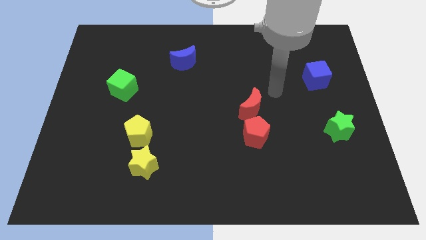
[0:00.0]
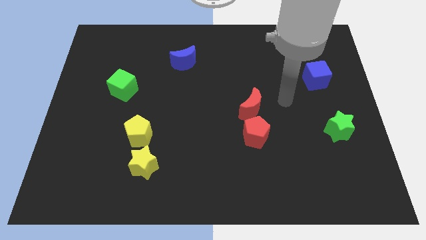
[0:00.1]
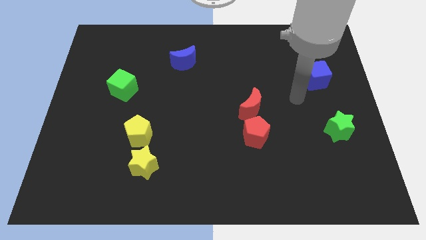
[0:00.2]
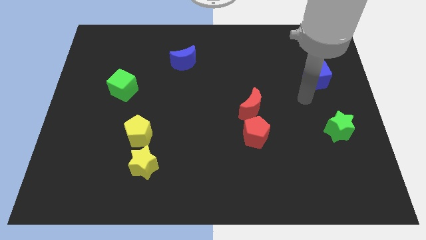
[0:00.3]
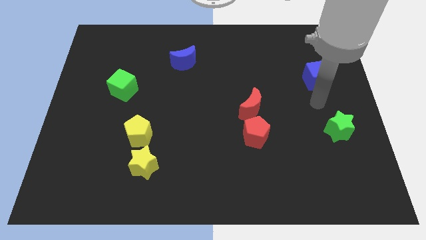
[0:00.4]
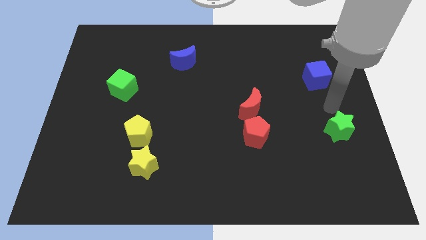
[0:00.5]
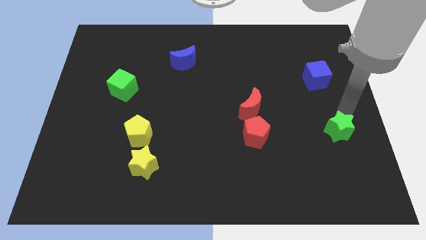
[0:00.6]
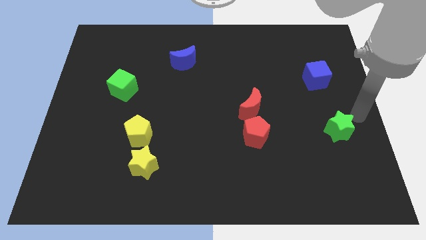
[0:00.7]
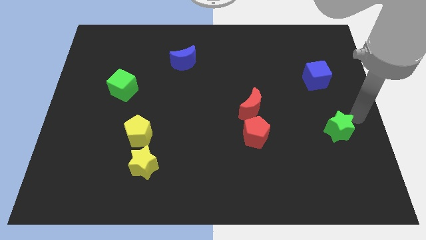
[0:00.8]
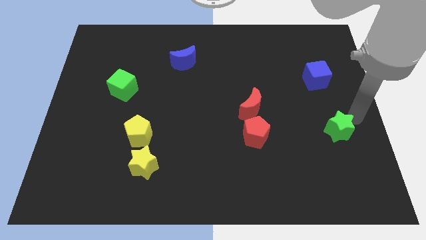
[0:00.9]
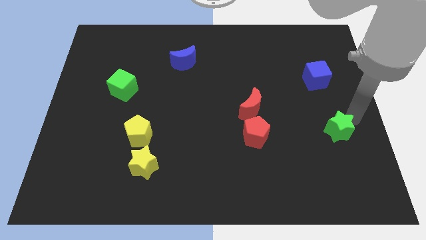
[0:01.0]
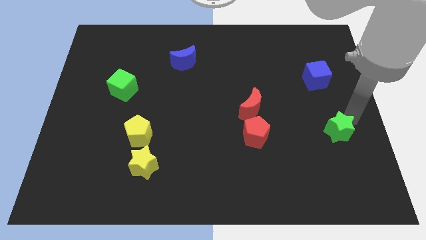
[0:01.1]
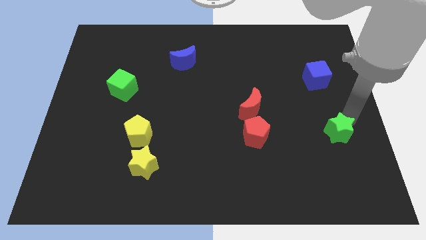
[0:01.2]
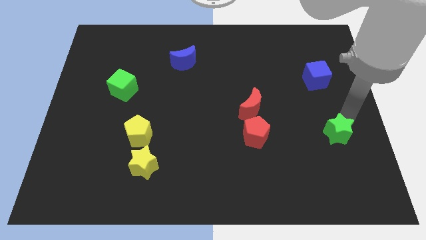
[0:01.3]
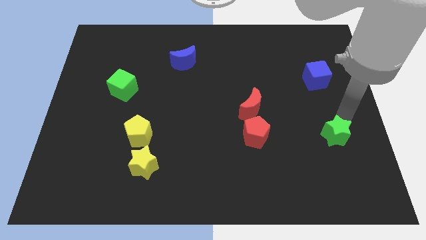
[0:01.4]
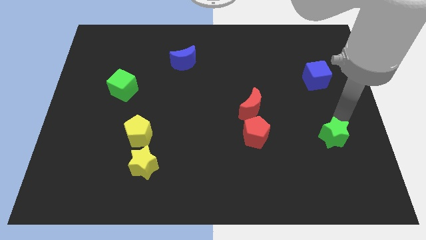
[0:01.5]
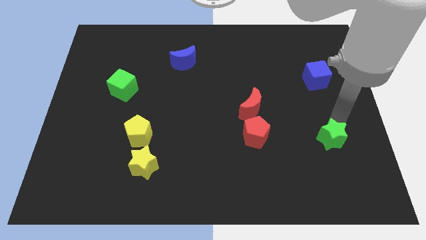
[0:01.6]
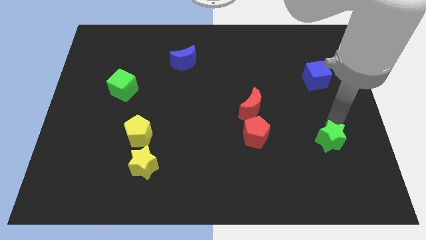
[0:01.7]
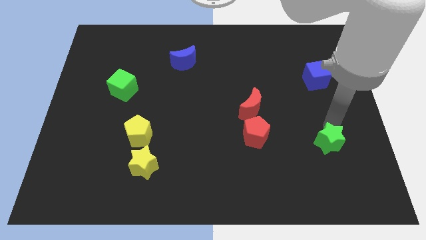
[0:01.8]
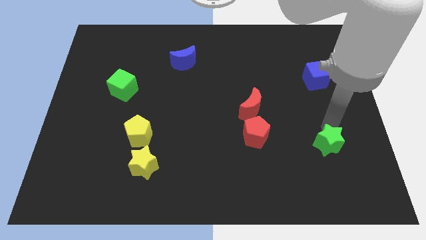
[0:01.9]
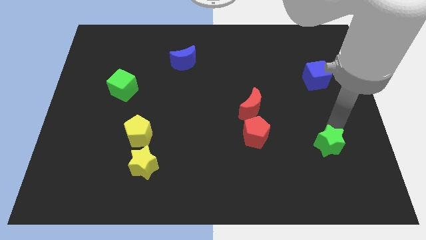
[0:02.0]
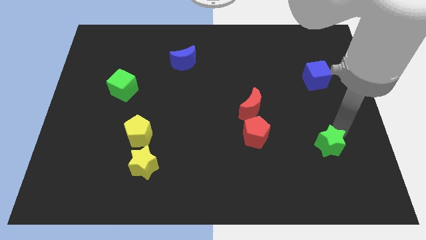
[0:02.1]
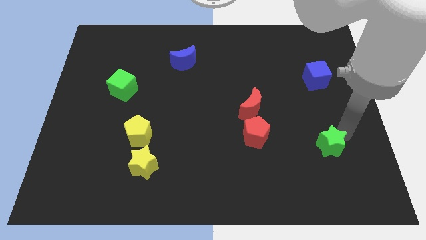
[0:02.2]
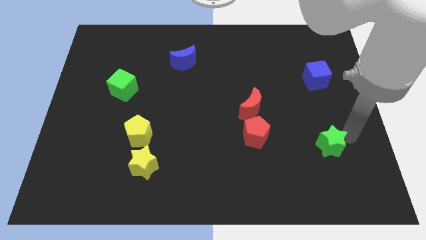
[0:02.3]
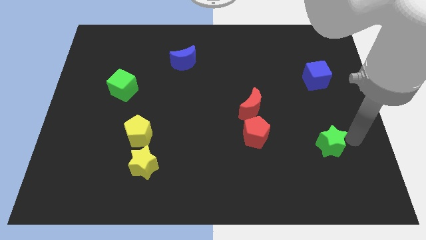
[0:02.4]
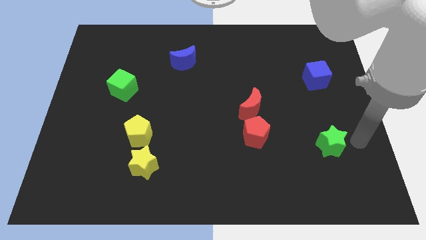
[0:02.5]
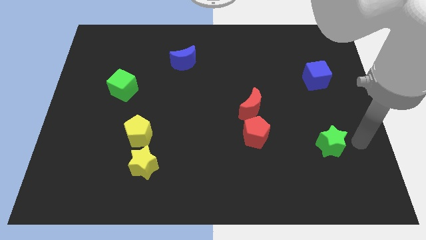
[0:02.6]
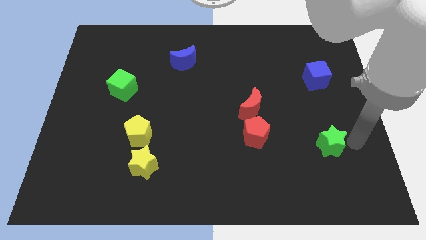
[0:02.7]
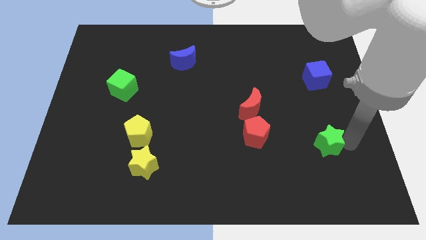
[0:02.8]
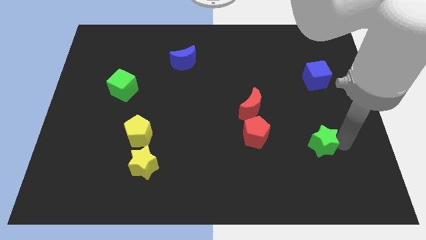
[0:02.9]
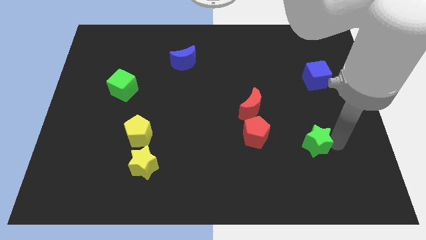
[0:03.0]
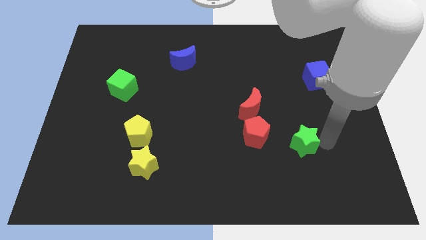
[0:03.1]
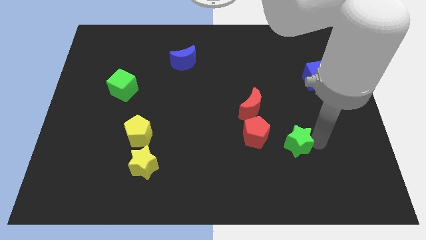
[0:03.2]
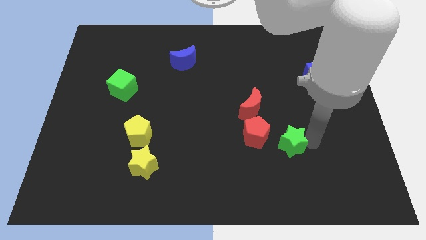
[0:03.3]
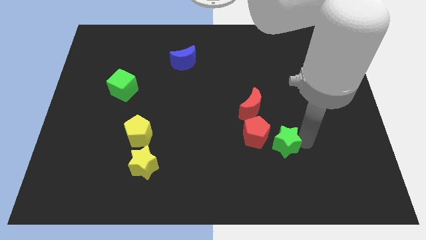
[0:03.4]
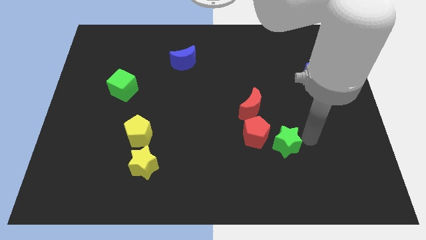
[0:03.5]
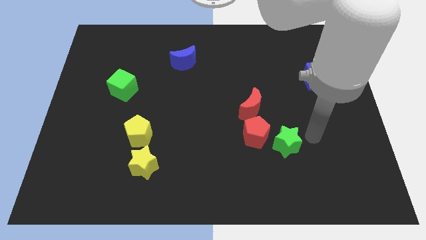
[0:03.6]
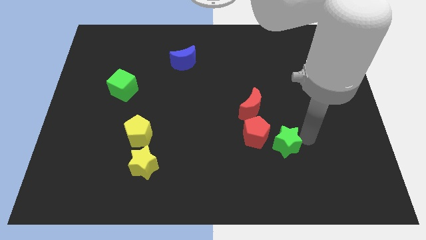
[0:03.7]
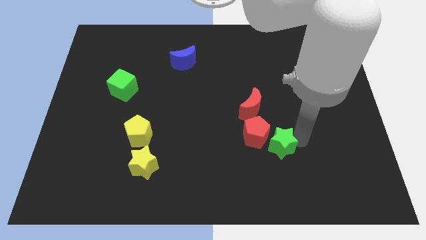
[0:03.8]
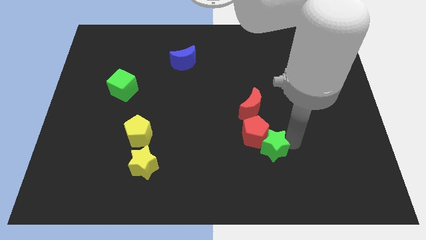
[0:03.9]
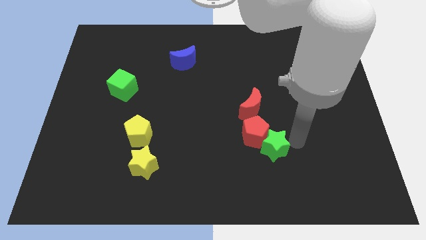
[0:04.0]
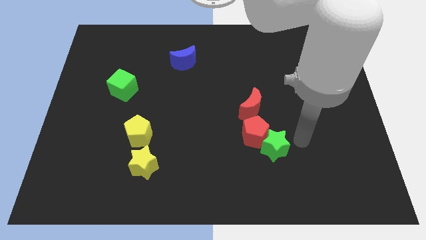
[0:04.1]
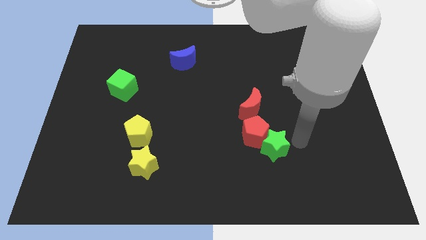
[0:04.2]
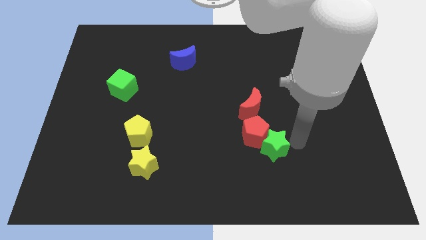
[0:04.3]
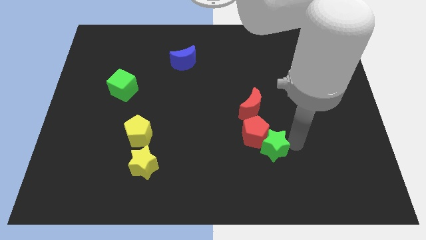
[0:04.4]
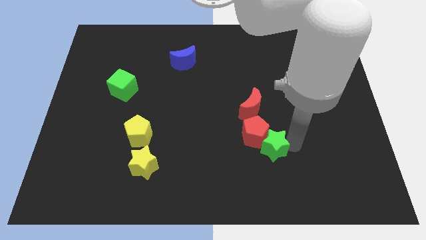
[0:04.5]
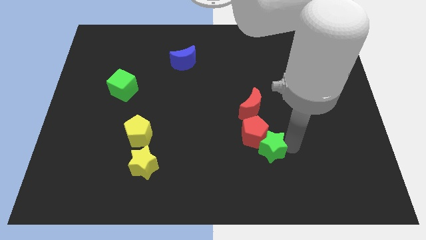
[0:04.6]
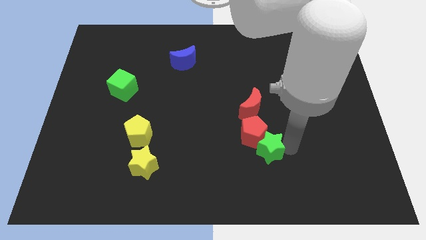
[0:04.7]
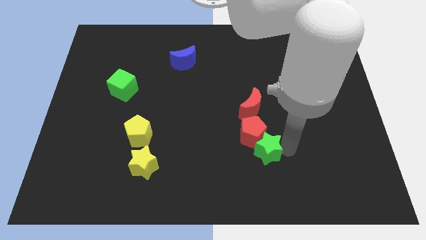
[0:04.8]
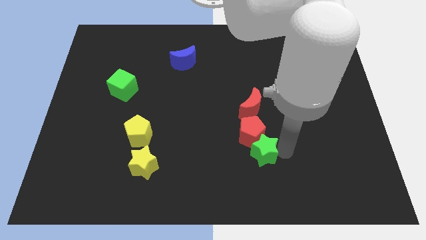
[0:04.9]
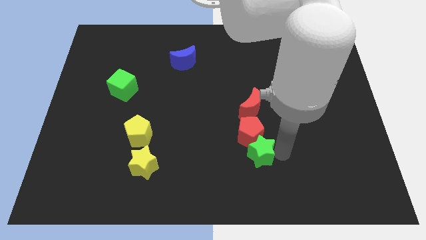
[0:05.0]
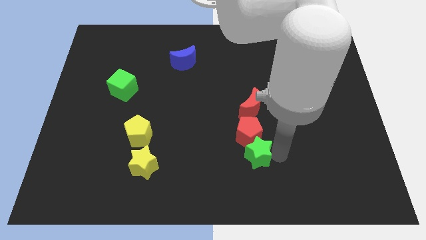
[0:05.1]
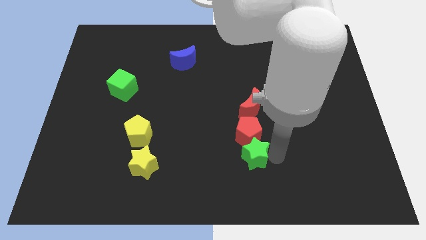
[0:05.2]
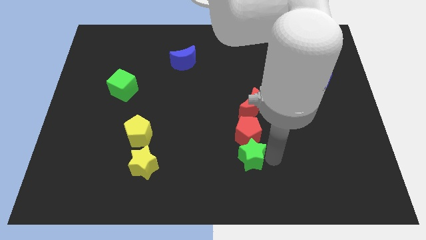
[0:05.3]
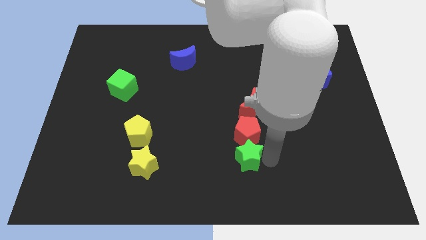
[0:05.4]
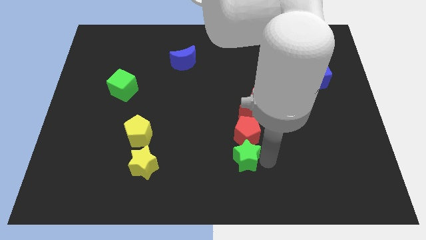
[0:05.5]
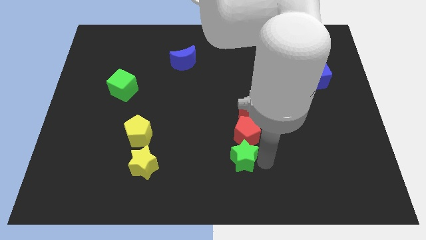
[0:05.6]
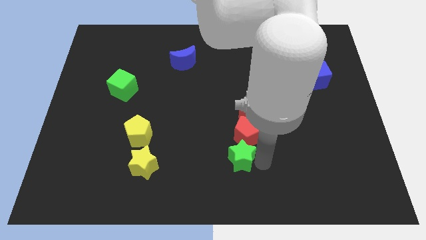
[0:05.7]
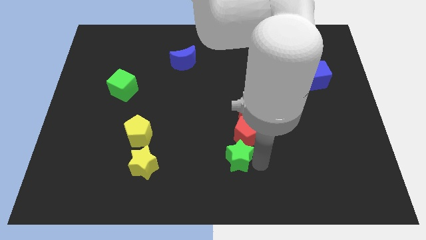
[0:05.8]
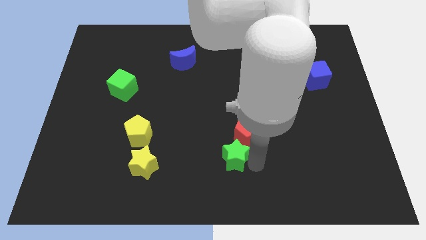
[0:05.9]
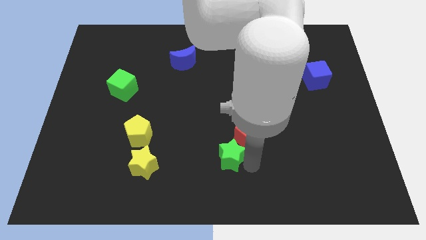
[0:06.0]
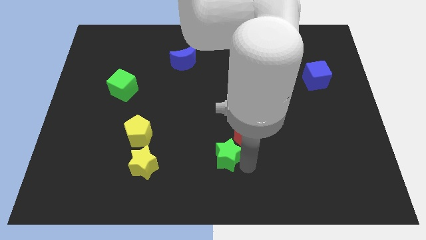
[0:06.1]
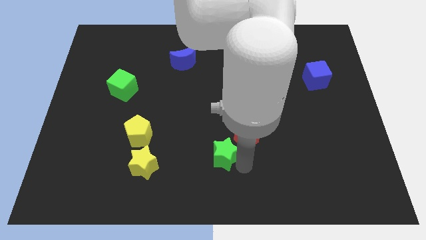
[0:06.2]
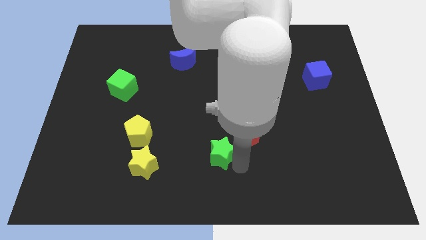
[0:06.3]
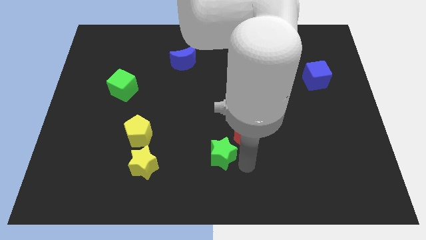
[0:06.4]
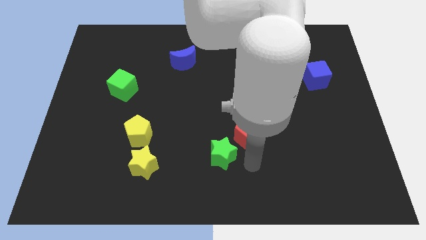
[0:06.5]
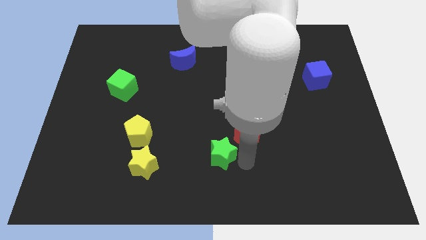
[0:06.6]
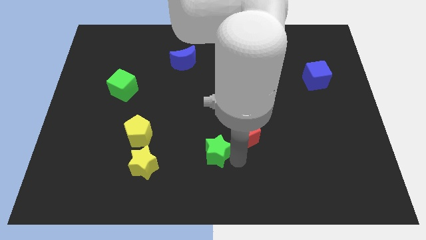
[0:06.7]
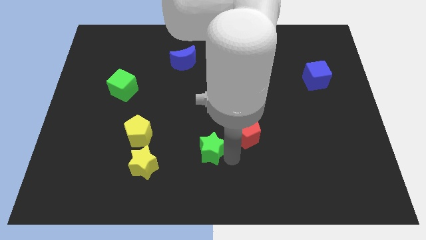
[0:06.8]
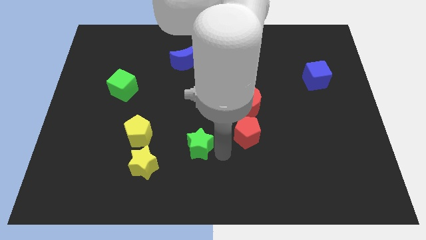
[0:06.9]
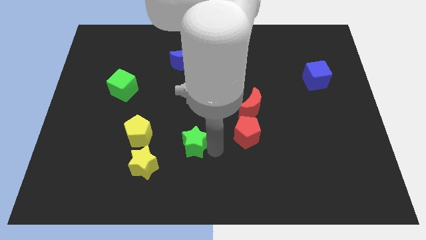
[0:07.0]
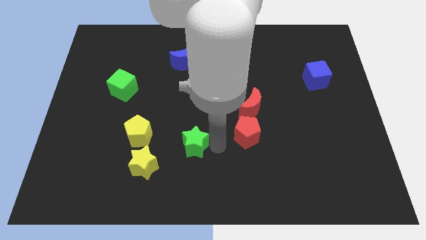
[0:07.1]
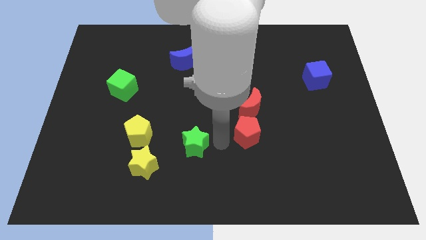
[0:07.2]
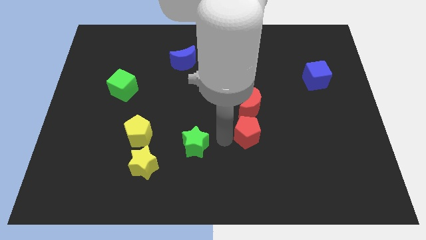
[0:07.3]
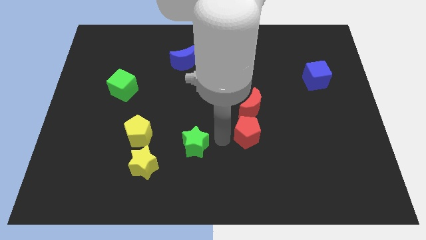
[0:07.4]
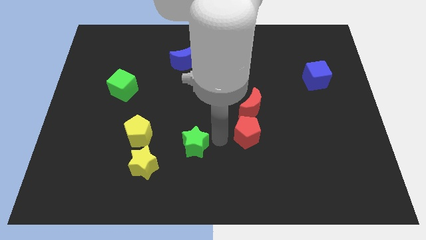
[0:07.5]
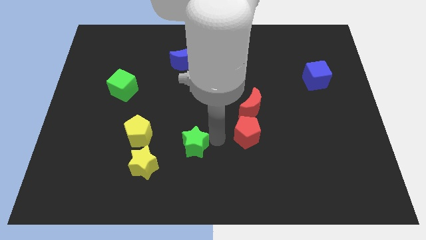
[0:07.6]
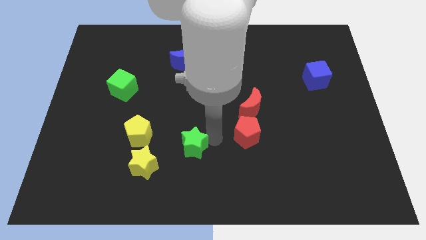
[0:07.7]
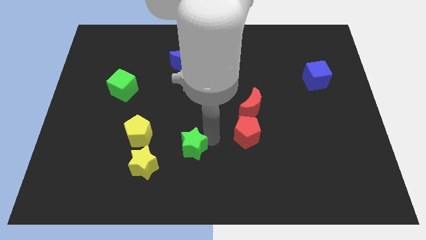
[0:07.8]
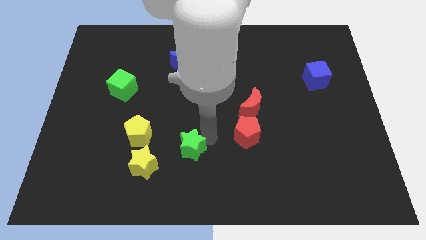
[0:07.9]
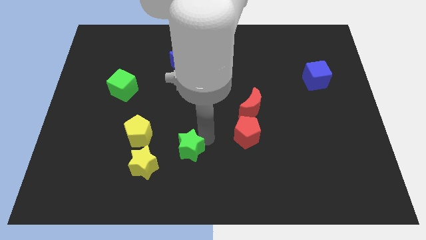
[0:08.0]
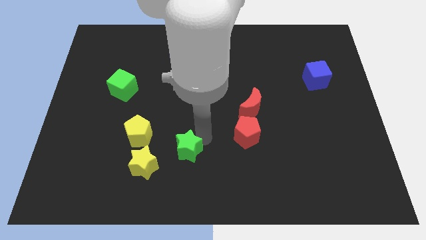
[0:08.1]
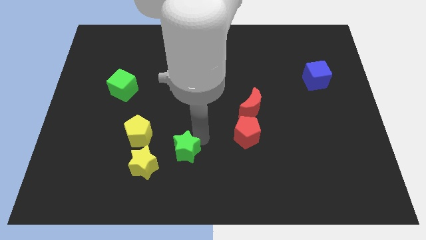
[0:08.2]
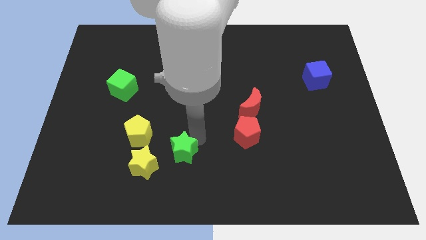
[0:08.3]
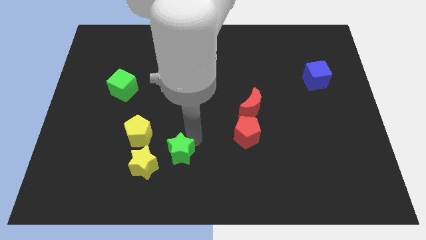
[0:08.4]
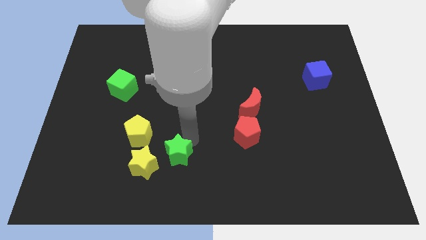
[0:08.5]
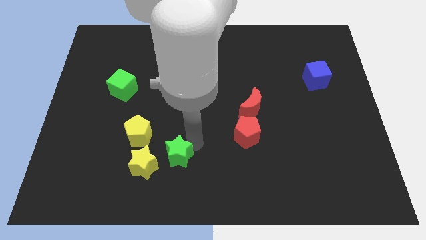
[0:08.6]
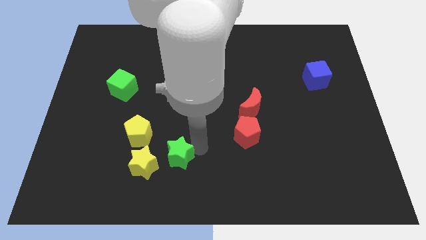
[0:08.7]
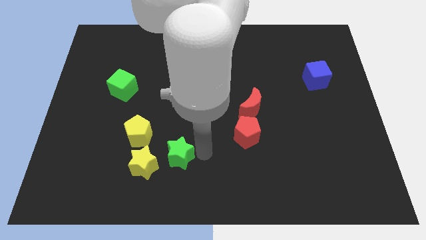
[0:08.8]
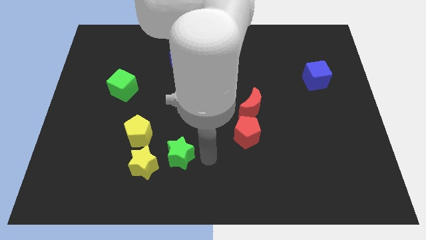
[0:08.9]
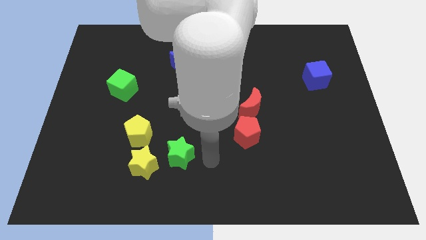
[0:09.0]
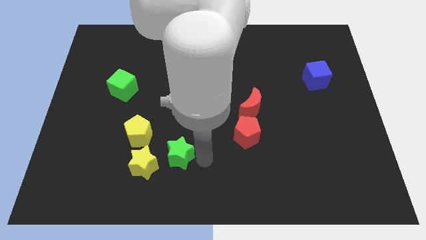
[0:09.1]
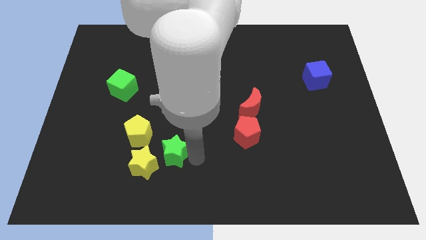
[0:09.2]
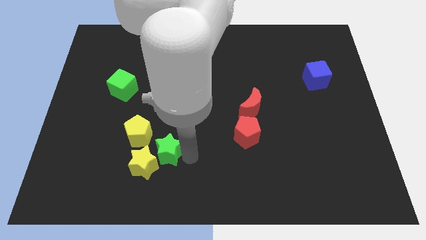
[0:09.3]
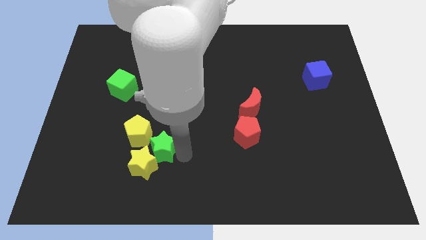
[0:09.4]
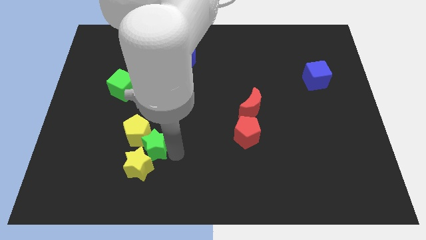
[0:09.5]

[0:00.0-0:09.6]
put the green star towards the yellow pentagon
